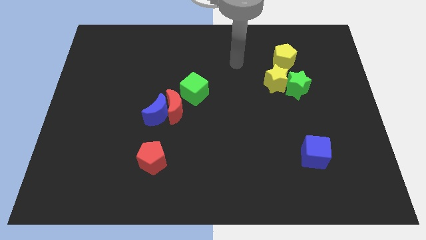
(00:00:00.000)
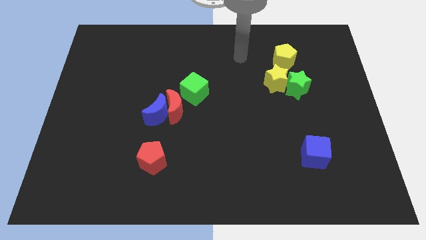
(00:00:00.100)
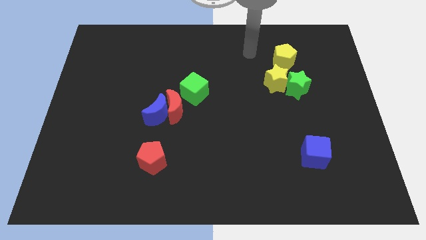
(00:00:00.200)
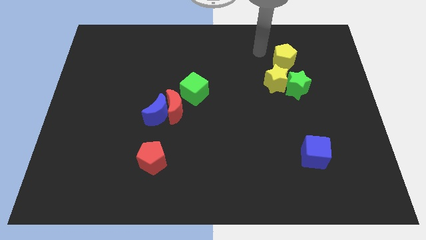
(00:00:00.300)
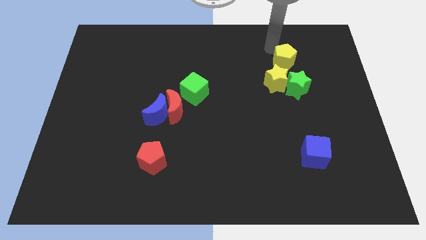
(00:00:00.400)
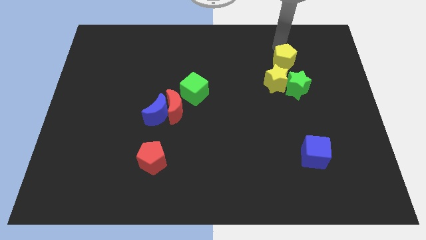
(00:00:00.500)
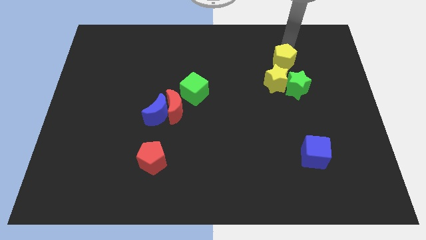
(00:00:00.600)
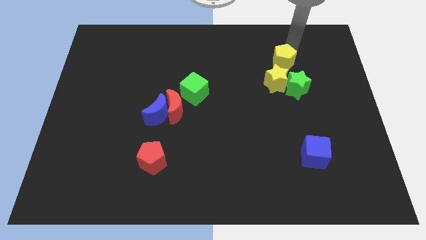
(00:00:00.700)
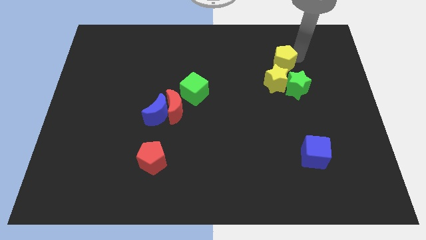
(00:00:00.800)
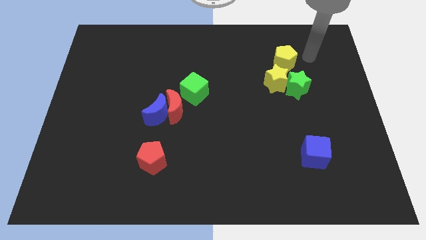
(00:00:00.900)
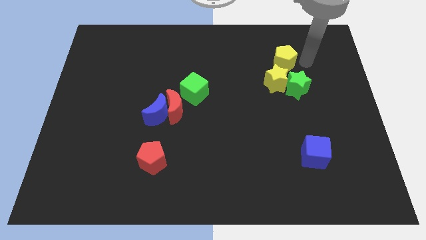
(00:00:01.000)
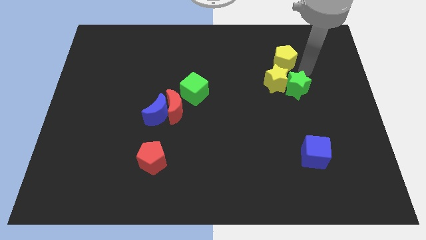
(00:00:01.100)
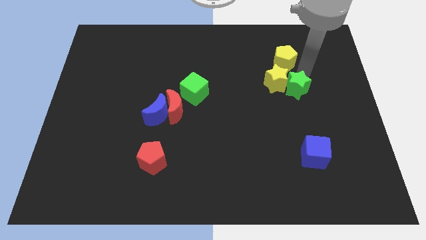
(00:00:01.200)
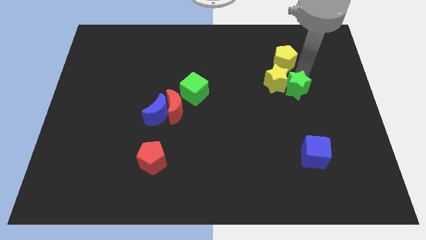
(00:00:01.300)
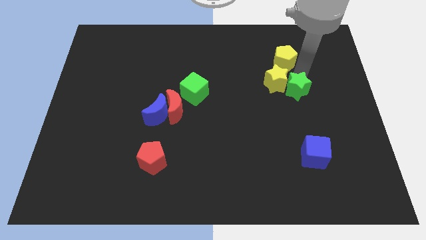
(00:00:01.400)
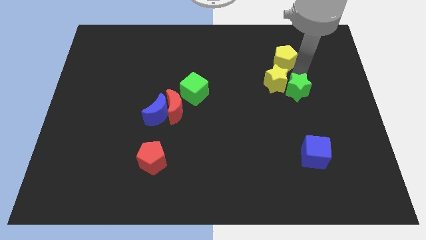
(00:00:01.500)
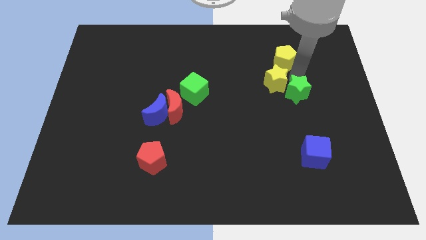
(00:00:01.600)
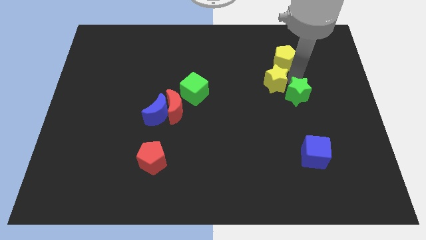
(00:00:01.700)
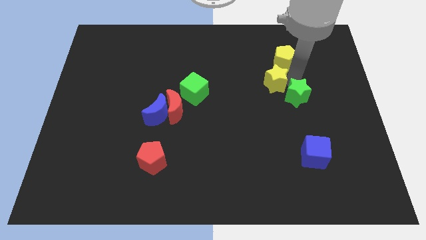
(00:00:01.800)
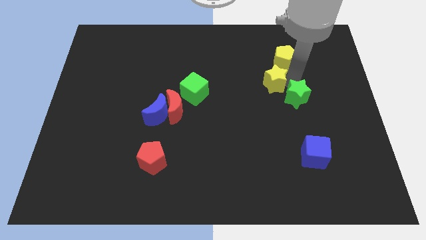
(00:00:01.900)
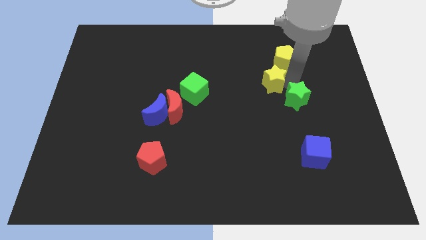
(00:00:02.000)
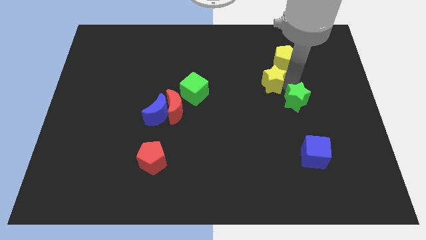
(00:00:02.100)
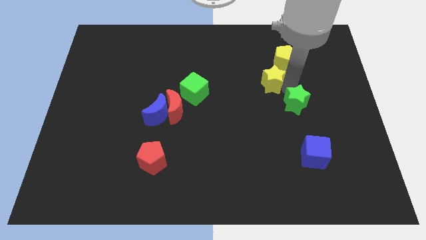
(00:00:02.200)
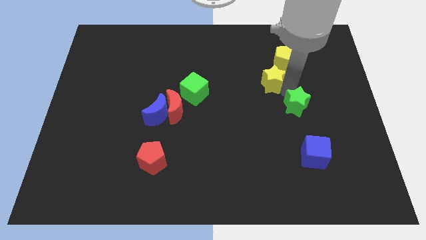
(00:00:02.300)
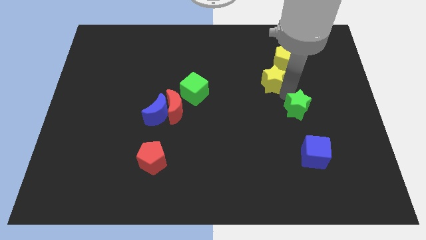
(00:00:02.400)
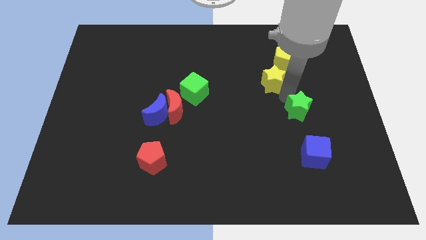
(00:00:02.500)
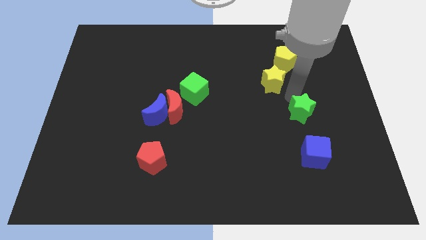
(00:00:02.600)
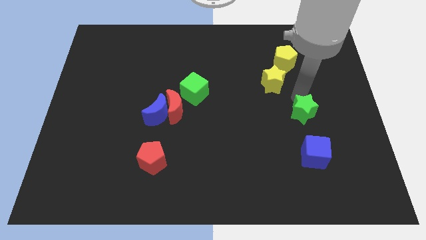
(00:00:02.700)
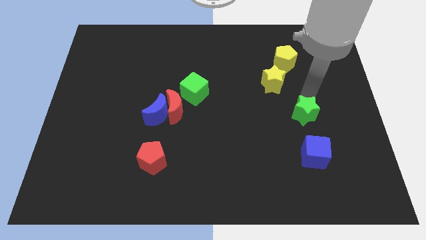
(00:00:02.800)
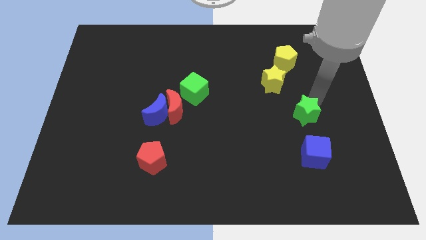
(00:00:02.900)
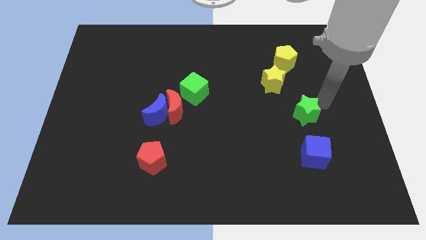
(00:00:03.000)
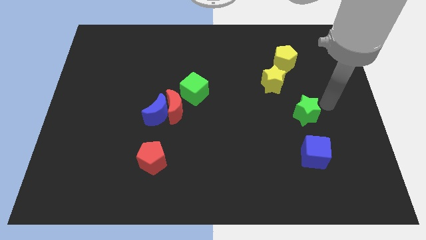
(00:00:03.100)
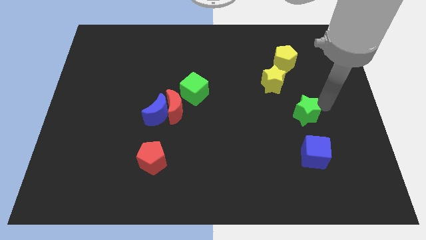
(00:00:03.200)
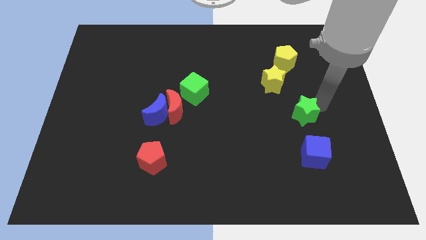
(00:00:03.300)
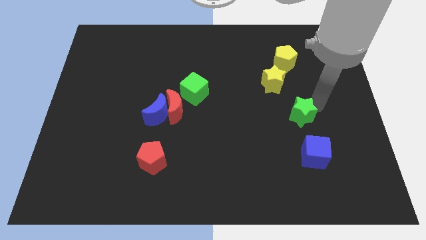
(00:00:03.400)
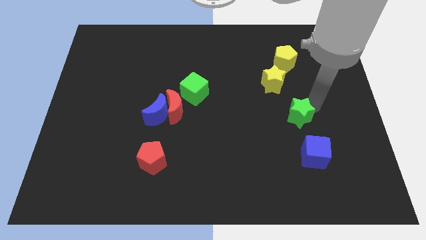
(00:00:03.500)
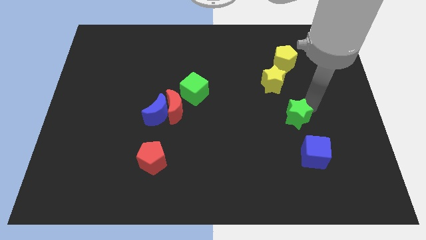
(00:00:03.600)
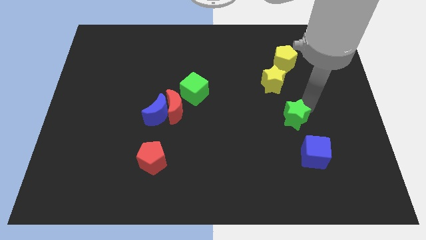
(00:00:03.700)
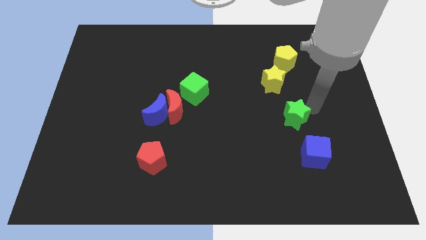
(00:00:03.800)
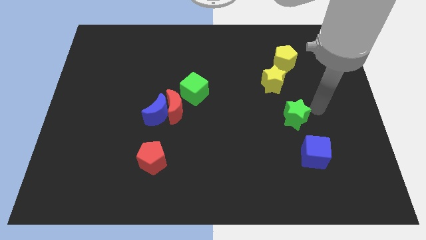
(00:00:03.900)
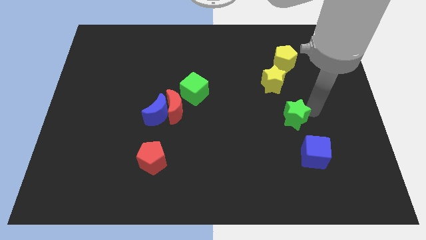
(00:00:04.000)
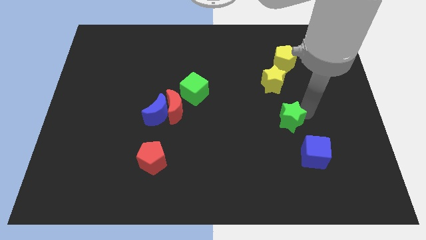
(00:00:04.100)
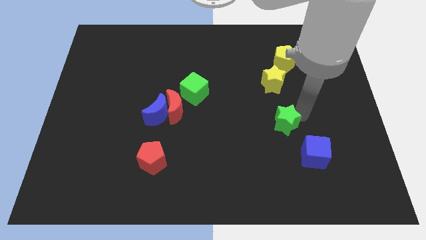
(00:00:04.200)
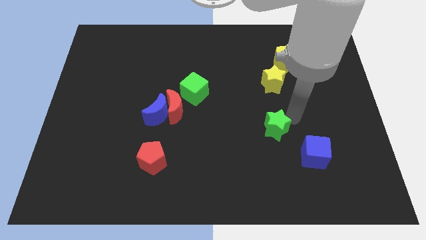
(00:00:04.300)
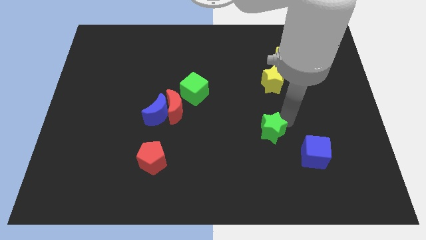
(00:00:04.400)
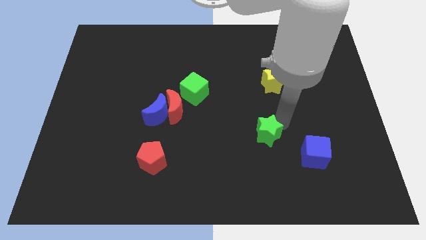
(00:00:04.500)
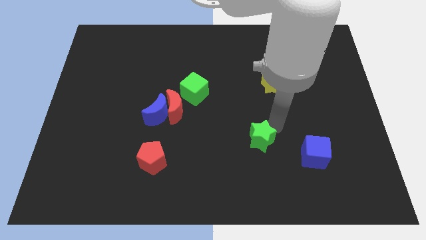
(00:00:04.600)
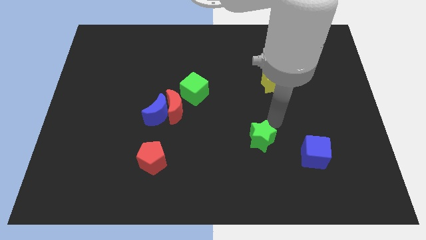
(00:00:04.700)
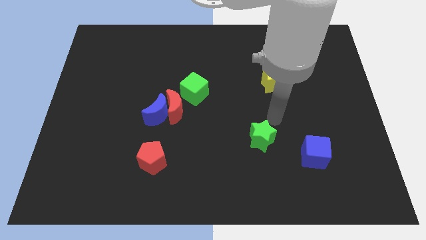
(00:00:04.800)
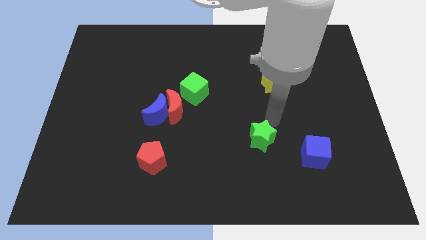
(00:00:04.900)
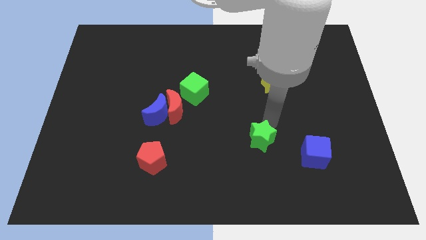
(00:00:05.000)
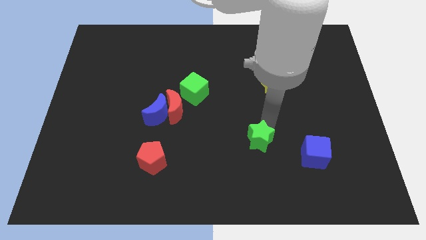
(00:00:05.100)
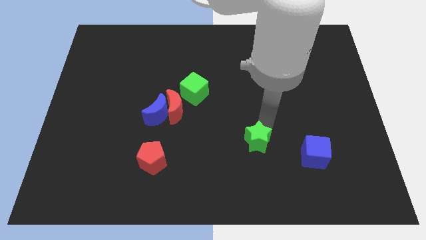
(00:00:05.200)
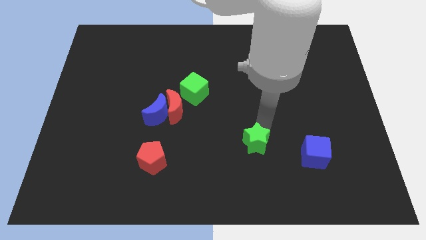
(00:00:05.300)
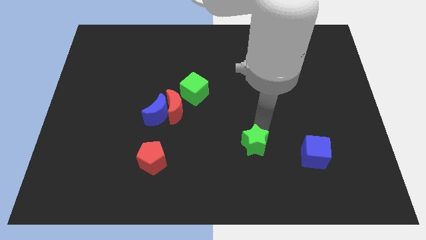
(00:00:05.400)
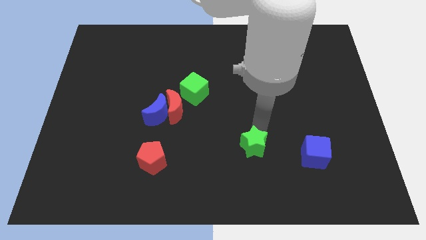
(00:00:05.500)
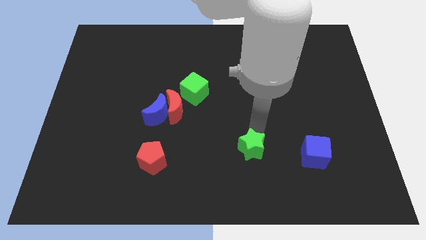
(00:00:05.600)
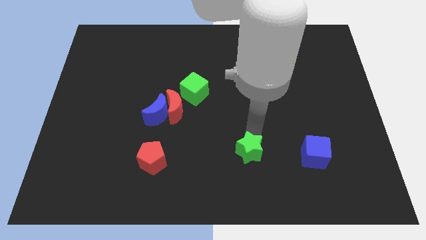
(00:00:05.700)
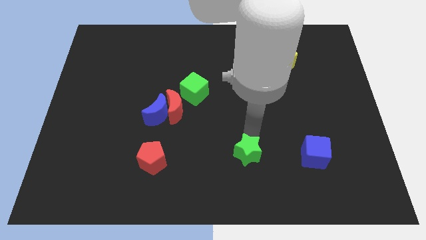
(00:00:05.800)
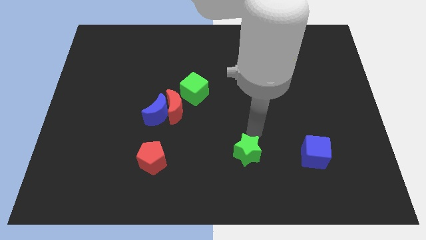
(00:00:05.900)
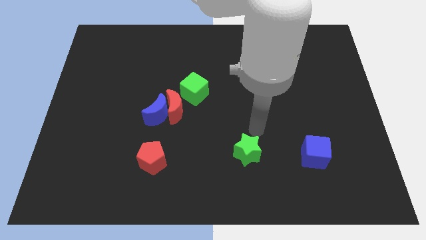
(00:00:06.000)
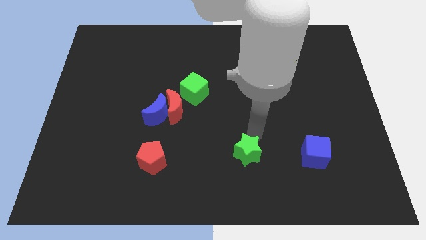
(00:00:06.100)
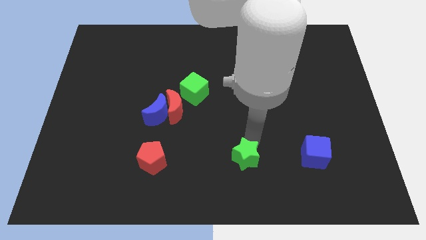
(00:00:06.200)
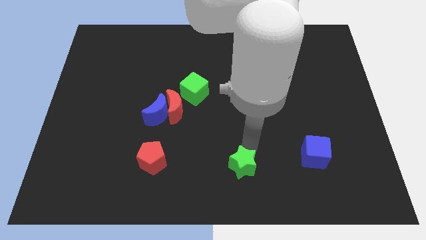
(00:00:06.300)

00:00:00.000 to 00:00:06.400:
push the green star to the bottom side
